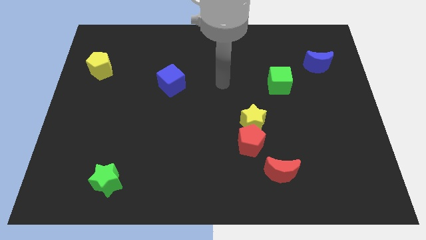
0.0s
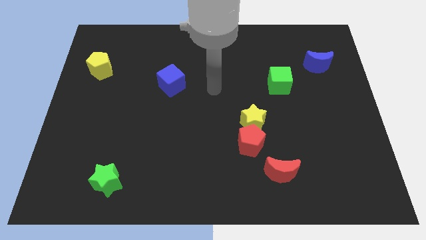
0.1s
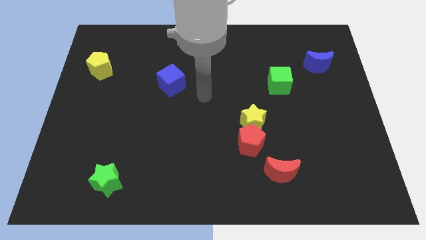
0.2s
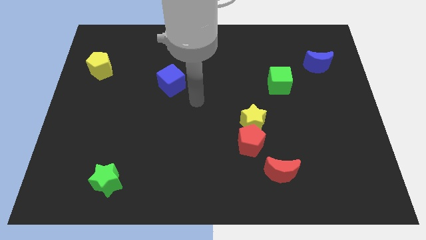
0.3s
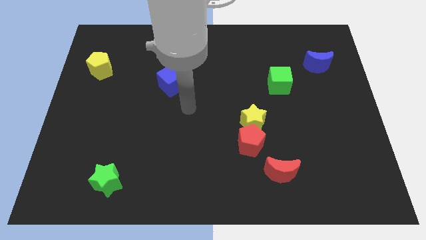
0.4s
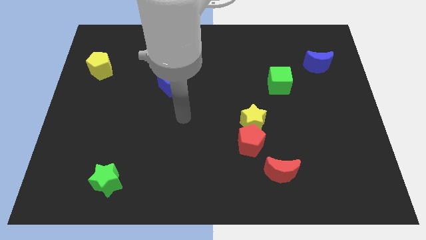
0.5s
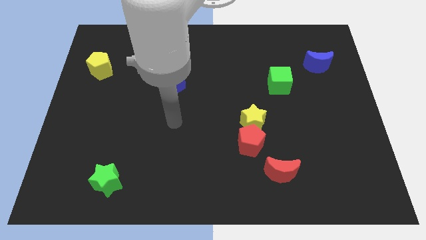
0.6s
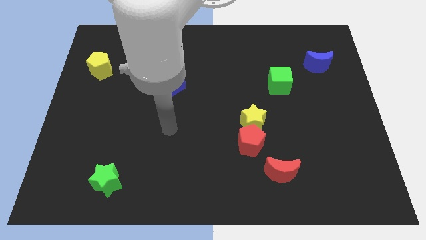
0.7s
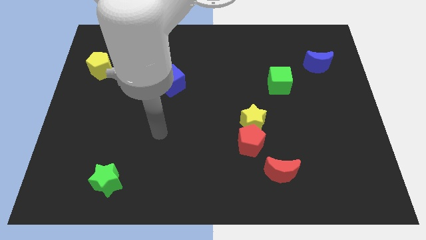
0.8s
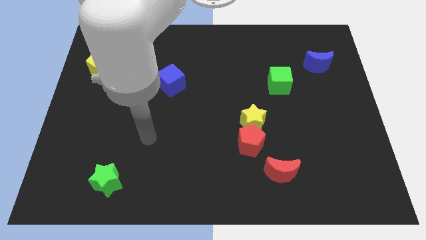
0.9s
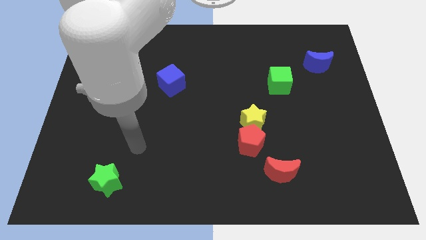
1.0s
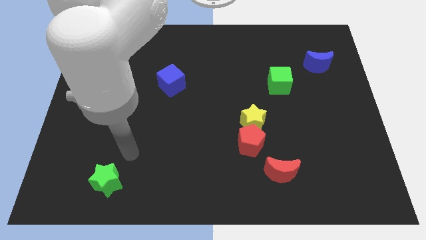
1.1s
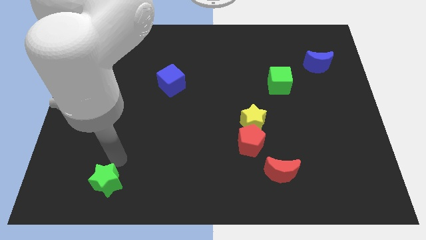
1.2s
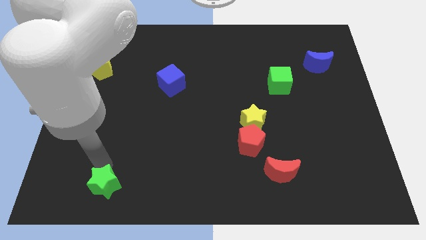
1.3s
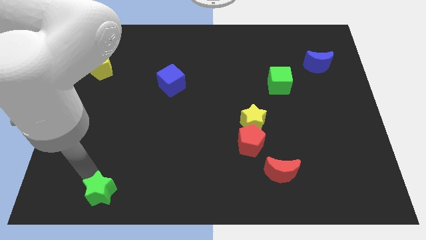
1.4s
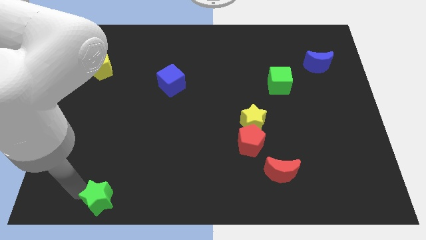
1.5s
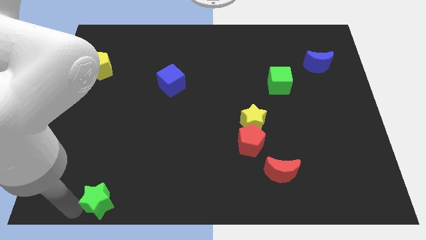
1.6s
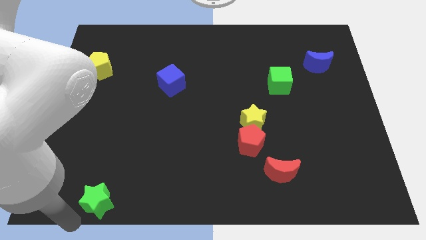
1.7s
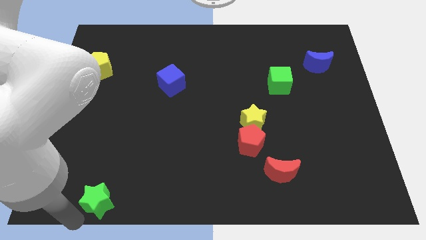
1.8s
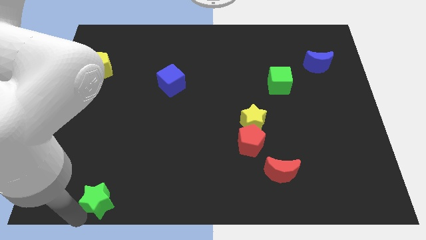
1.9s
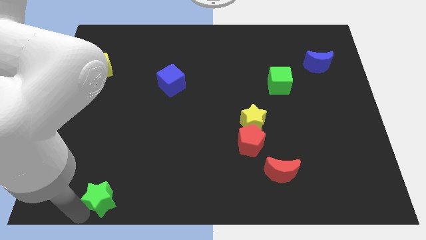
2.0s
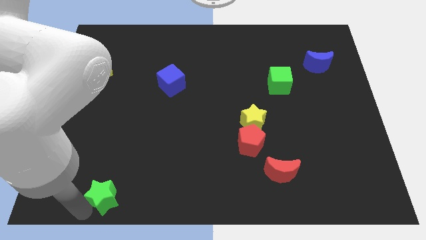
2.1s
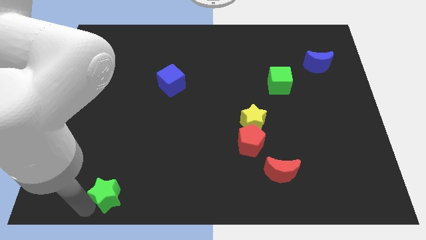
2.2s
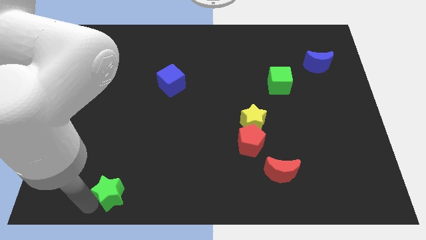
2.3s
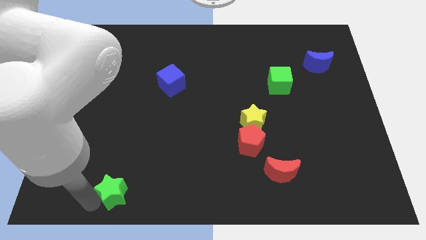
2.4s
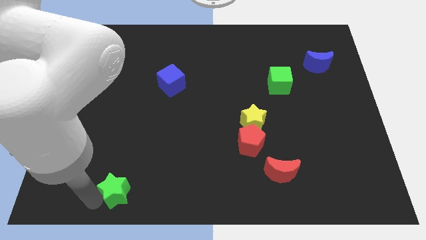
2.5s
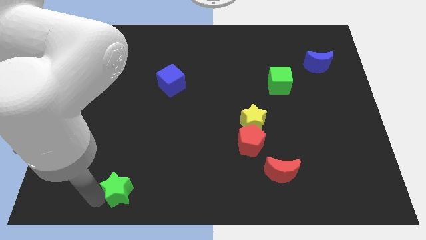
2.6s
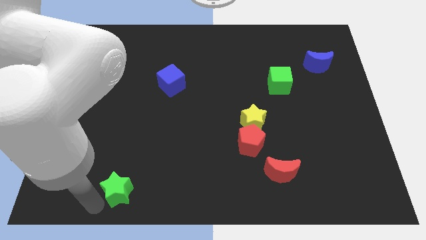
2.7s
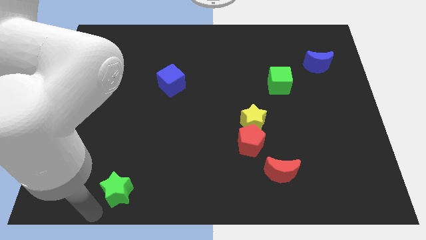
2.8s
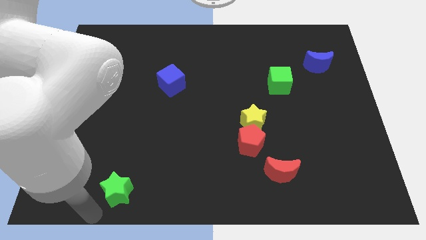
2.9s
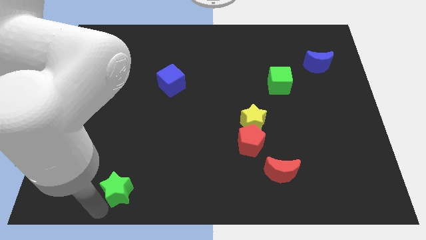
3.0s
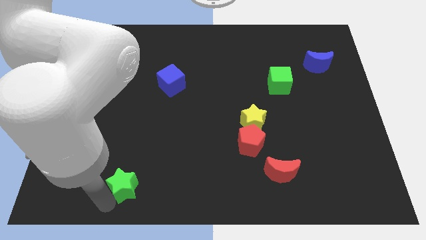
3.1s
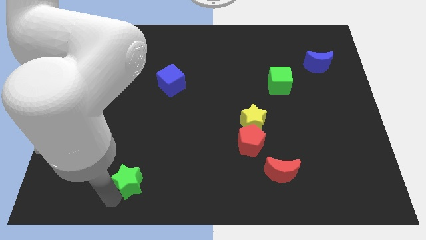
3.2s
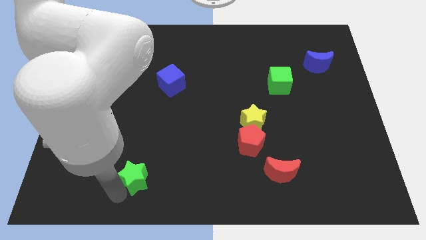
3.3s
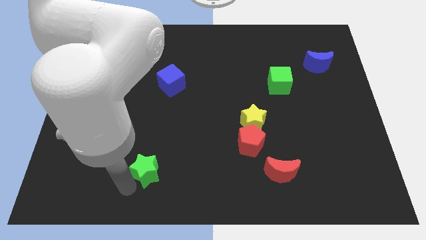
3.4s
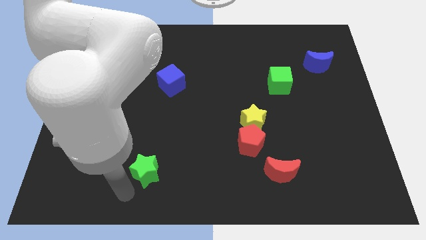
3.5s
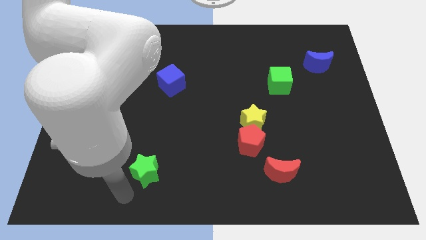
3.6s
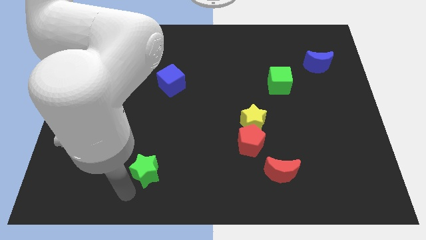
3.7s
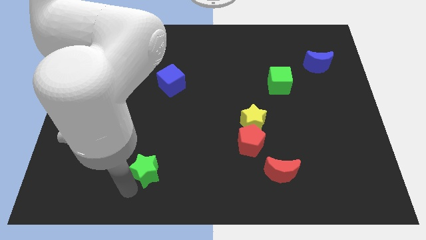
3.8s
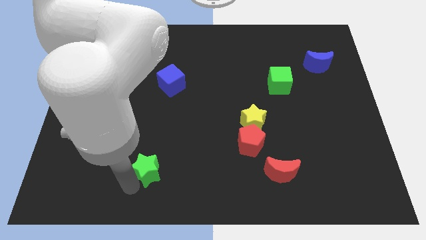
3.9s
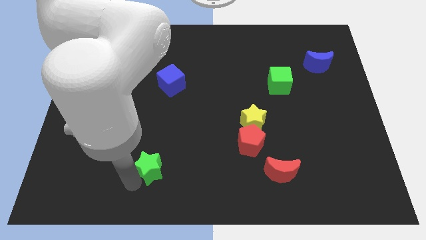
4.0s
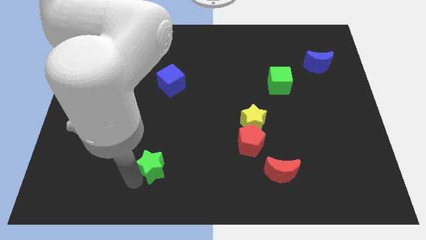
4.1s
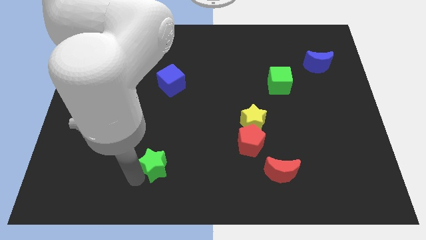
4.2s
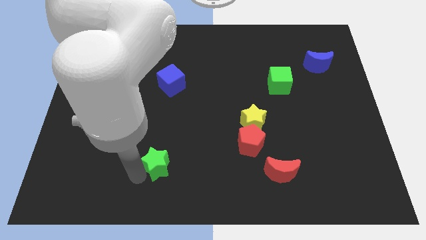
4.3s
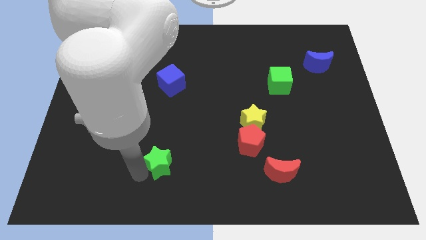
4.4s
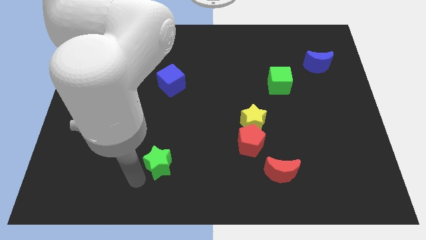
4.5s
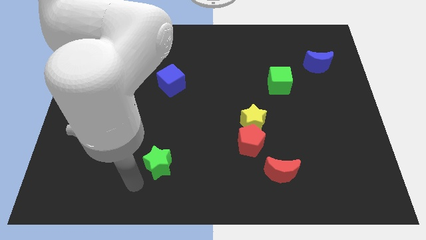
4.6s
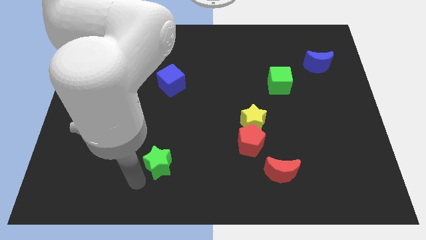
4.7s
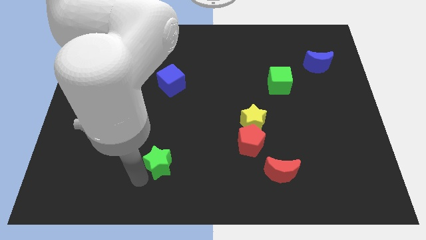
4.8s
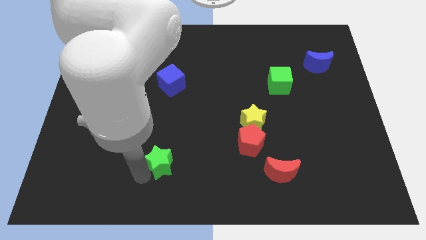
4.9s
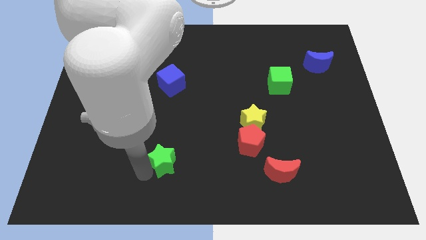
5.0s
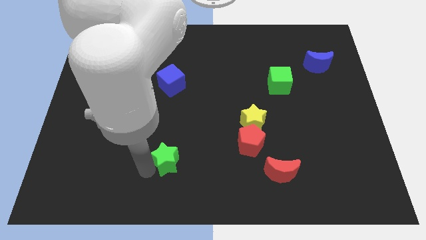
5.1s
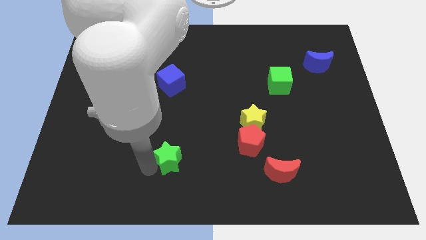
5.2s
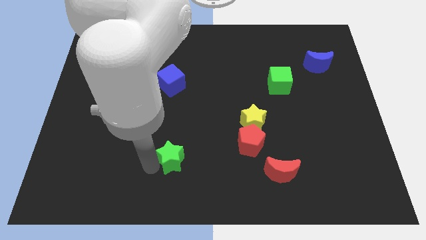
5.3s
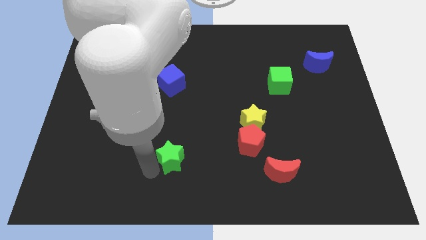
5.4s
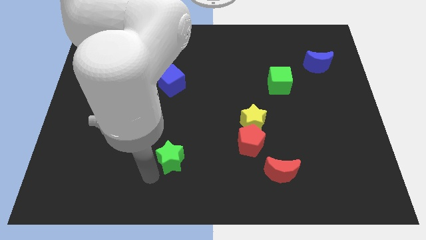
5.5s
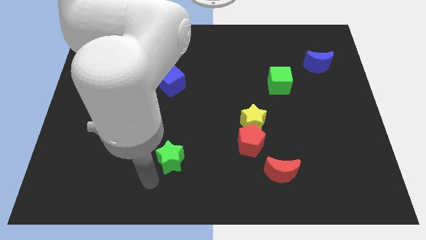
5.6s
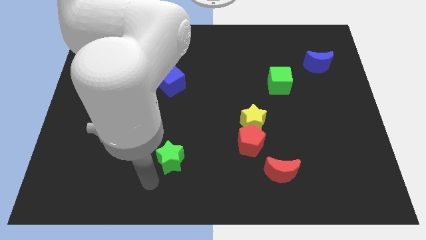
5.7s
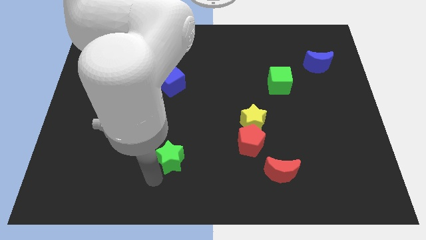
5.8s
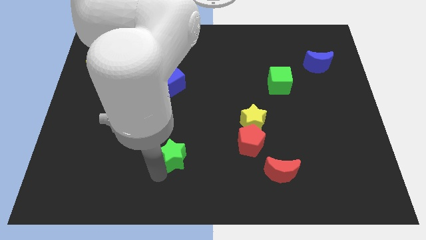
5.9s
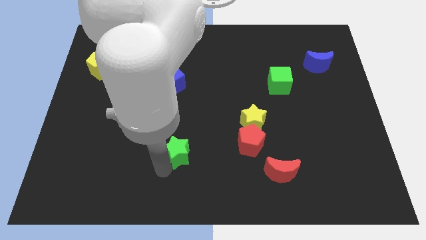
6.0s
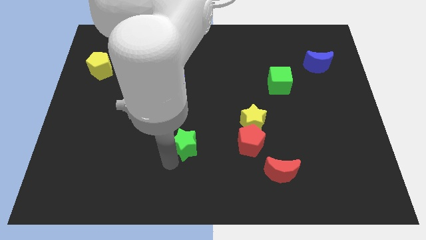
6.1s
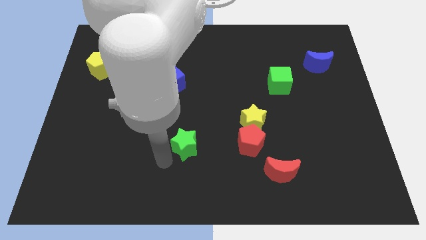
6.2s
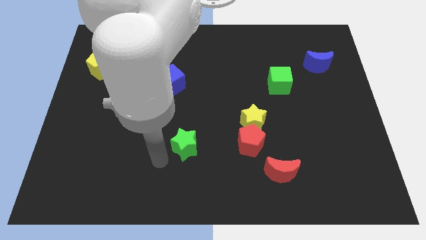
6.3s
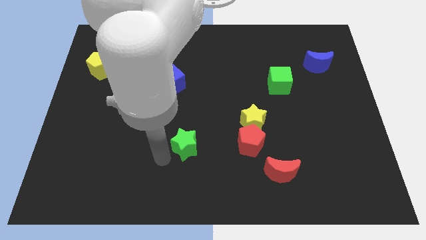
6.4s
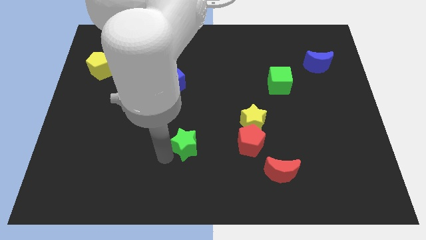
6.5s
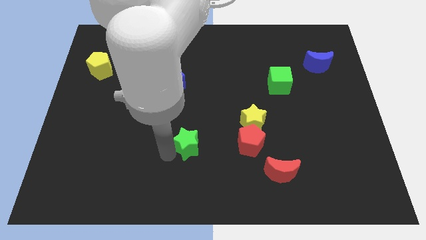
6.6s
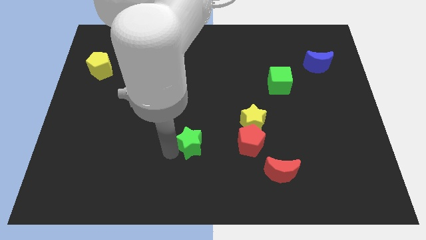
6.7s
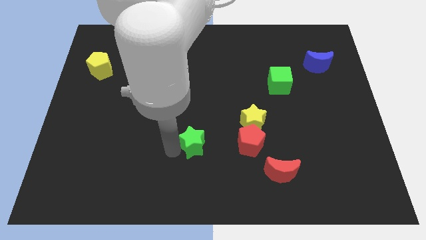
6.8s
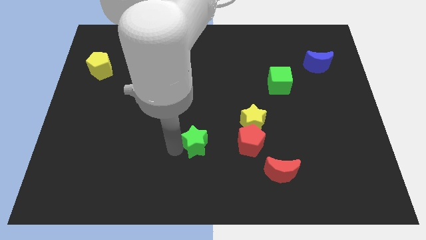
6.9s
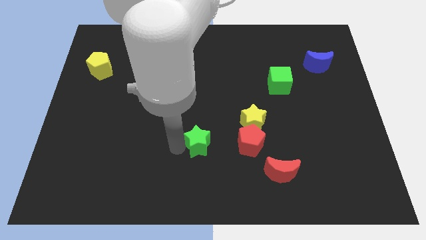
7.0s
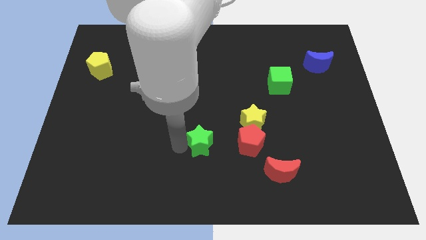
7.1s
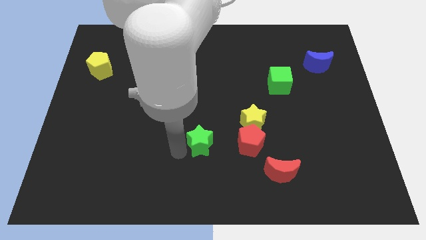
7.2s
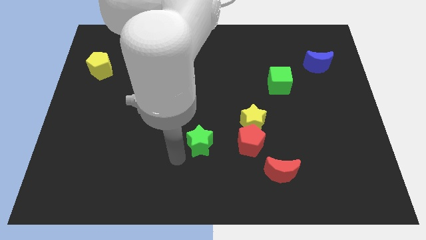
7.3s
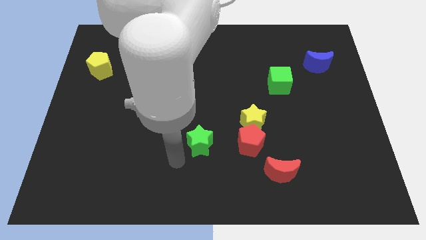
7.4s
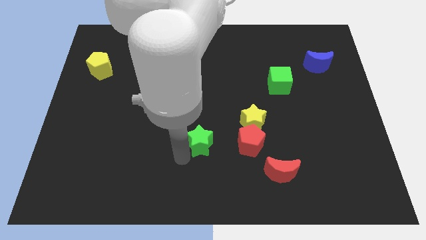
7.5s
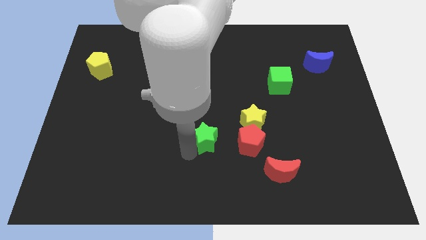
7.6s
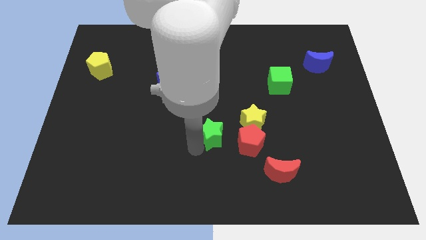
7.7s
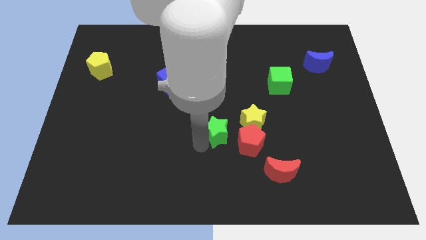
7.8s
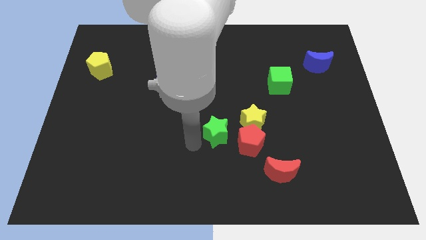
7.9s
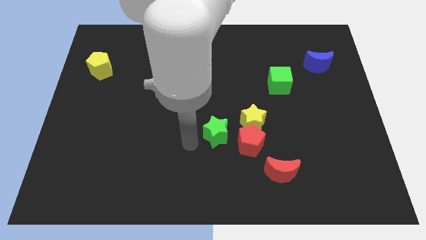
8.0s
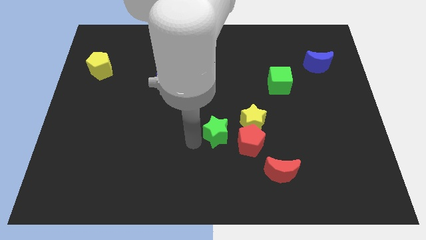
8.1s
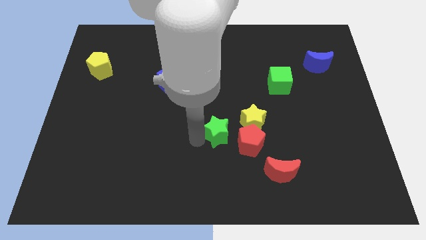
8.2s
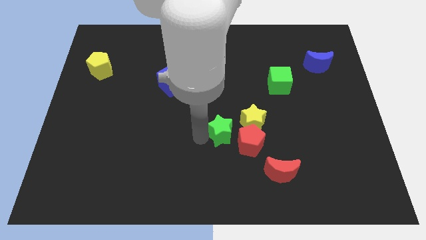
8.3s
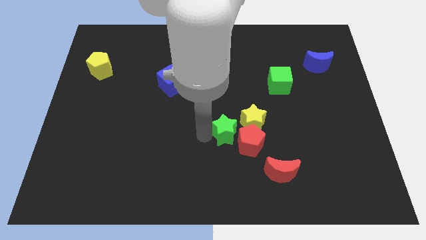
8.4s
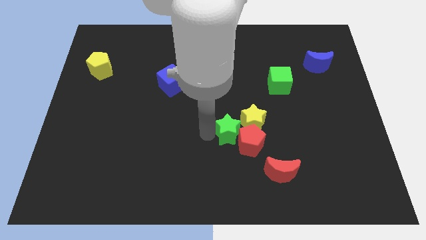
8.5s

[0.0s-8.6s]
put the green star close to the yellow star
